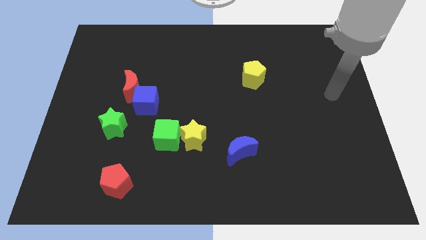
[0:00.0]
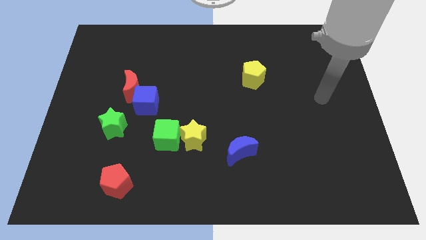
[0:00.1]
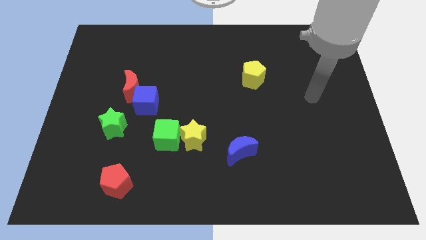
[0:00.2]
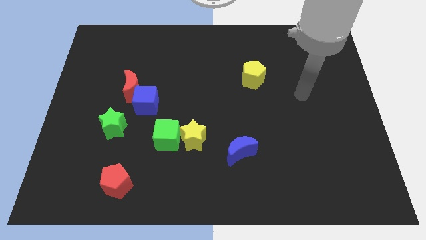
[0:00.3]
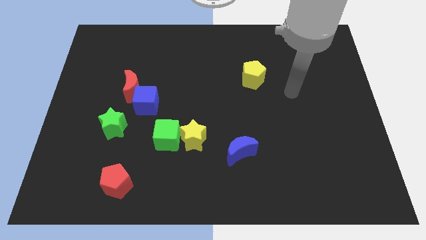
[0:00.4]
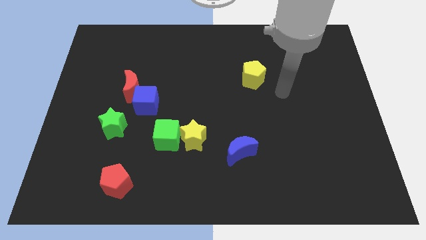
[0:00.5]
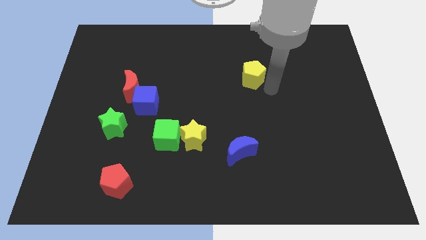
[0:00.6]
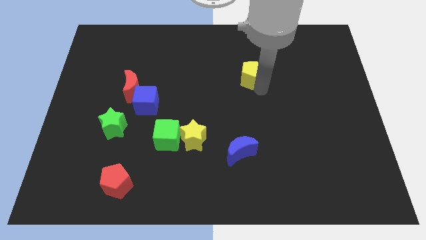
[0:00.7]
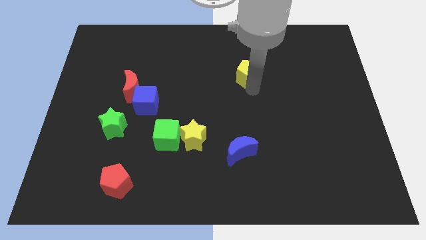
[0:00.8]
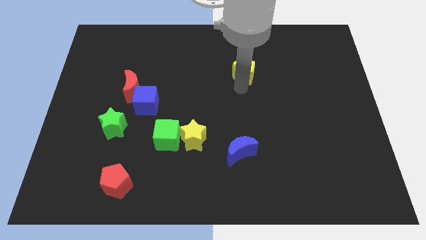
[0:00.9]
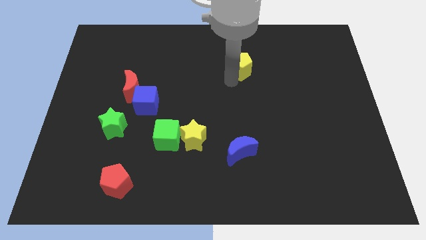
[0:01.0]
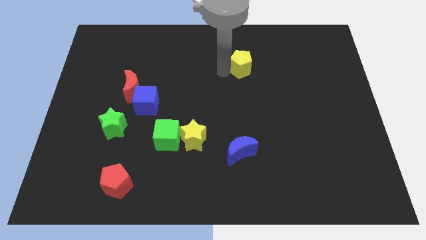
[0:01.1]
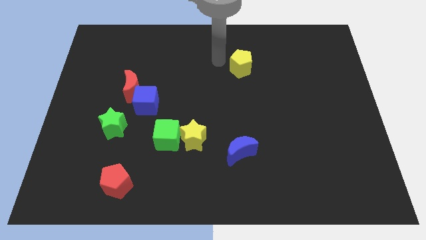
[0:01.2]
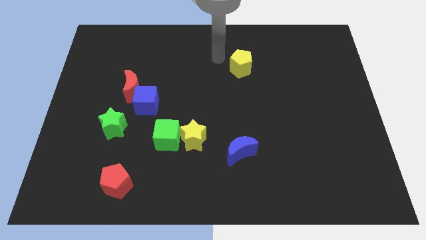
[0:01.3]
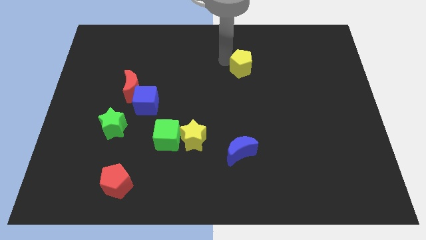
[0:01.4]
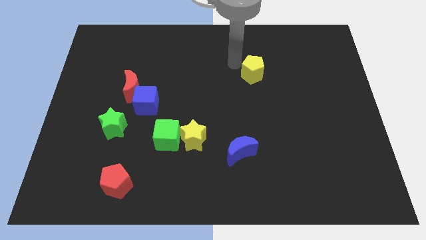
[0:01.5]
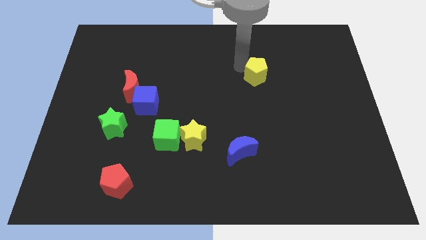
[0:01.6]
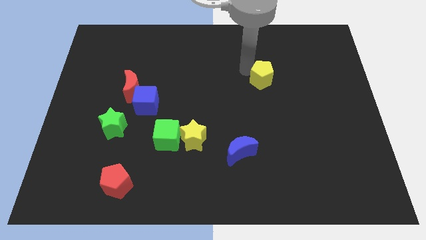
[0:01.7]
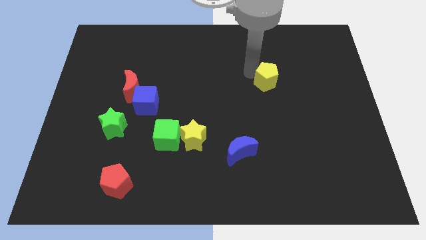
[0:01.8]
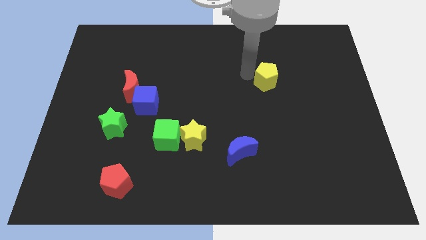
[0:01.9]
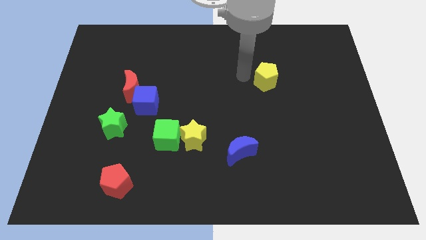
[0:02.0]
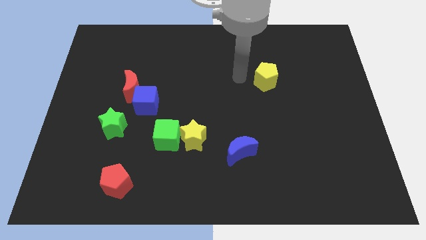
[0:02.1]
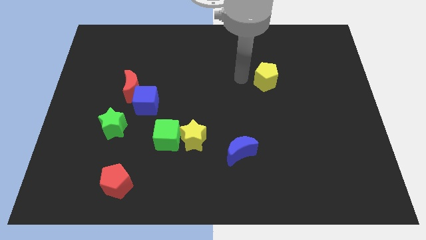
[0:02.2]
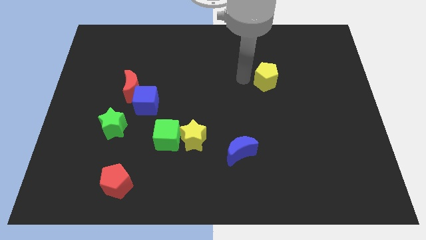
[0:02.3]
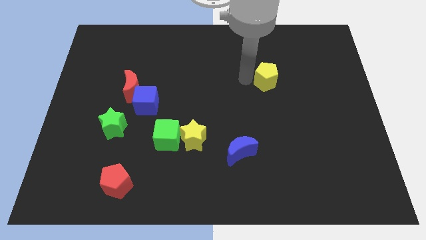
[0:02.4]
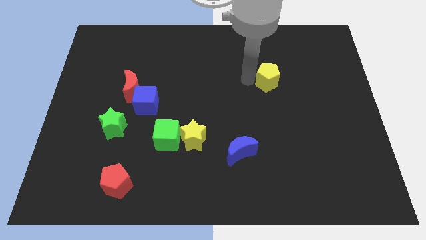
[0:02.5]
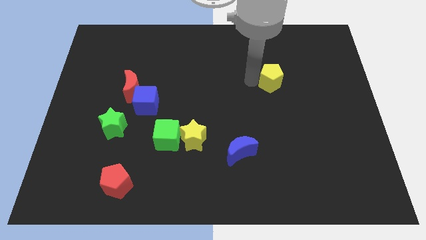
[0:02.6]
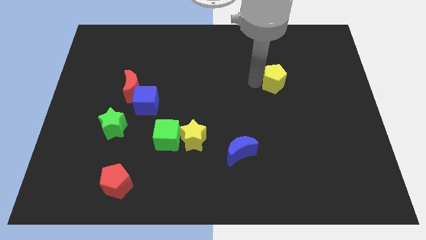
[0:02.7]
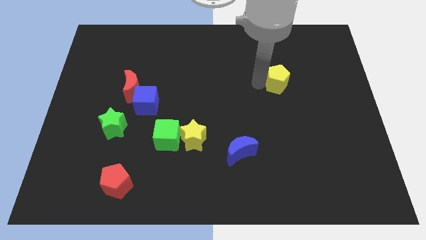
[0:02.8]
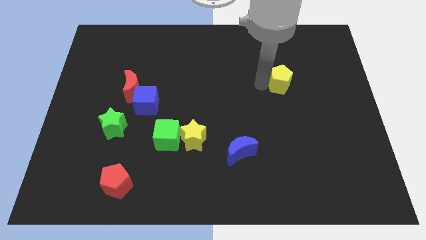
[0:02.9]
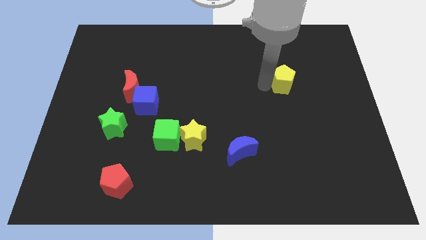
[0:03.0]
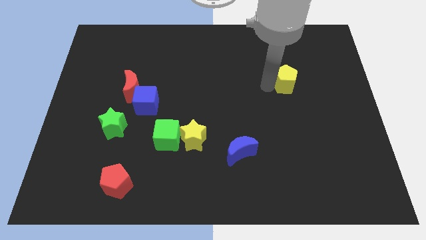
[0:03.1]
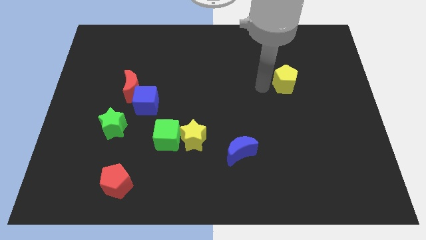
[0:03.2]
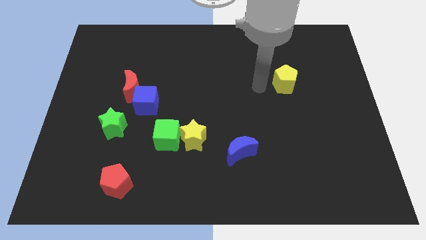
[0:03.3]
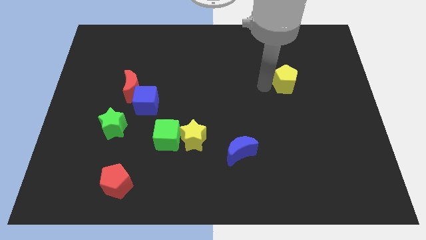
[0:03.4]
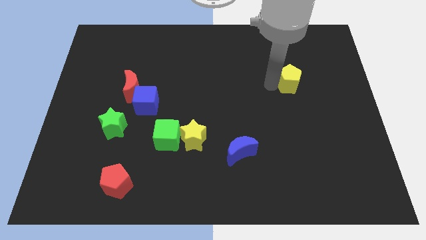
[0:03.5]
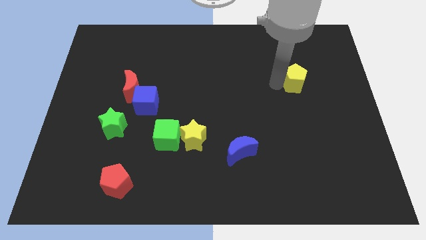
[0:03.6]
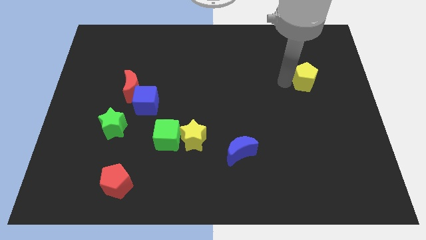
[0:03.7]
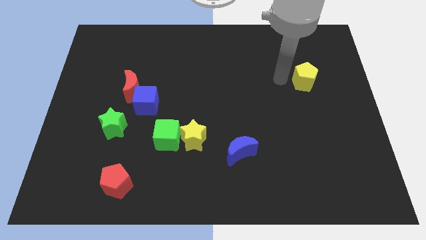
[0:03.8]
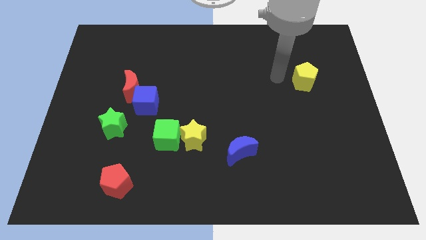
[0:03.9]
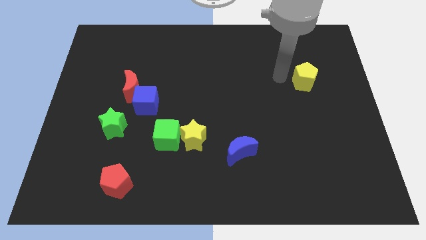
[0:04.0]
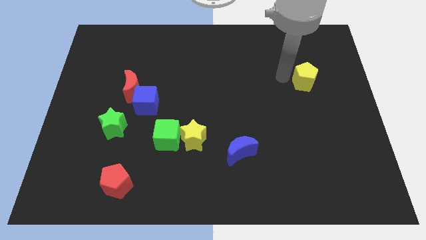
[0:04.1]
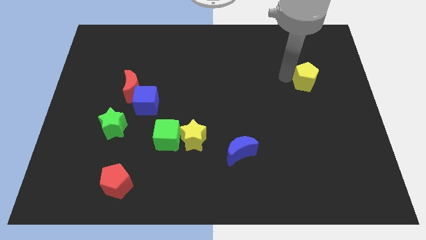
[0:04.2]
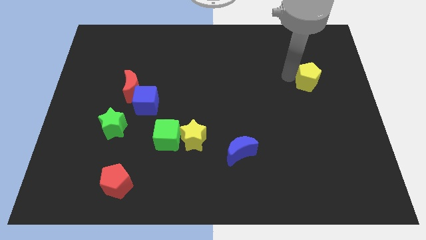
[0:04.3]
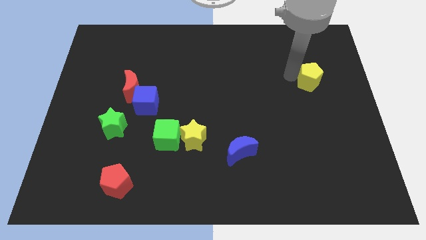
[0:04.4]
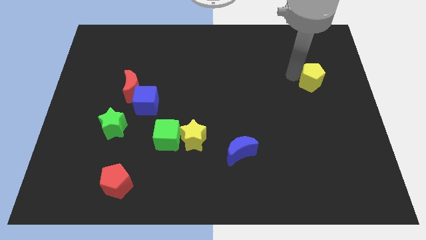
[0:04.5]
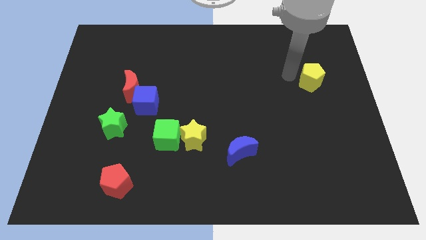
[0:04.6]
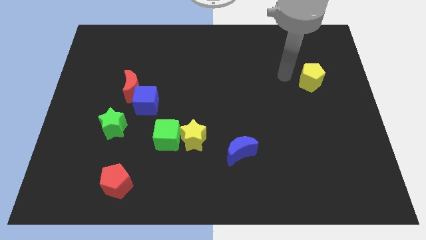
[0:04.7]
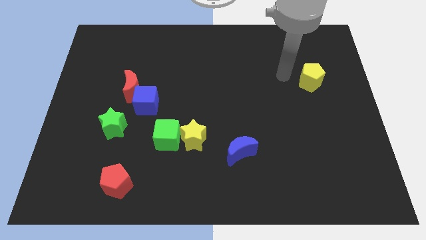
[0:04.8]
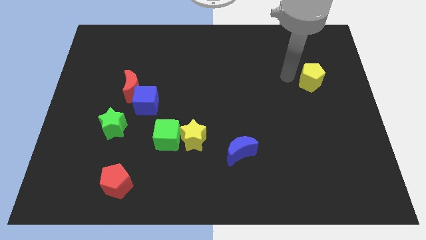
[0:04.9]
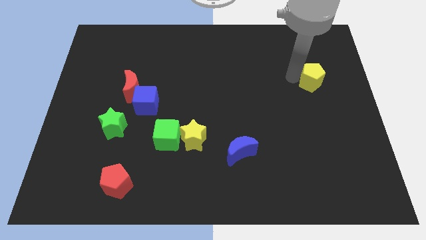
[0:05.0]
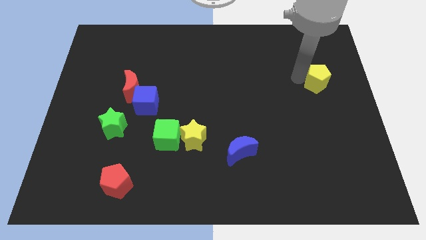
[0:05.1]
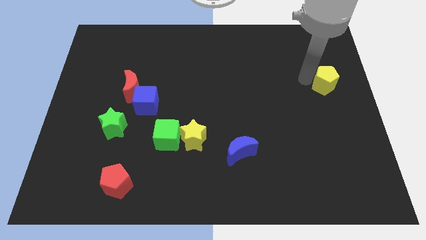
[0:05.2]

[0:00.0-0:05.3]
put the yellow pentagon to the right side
